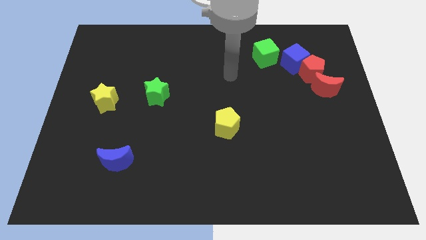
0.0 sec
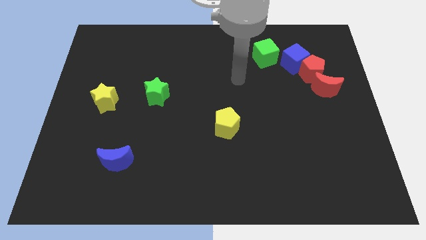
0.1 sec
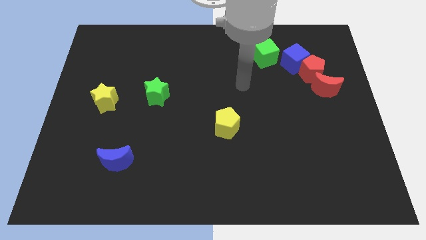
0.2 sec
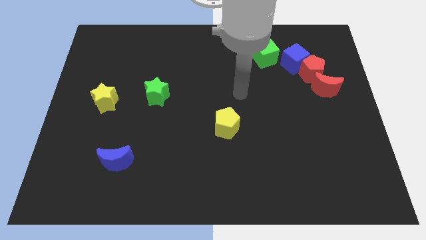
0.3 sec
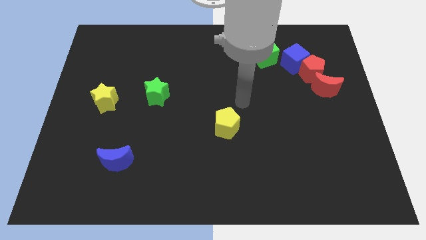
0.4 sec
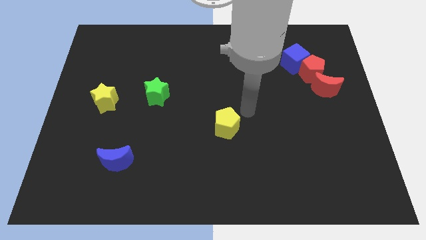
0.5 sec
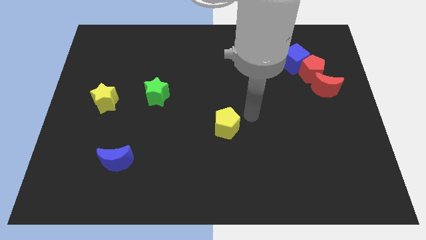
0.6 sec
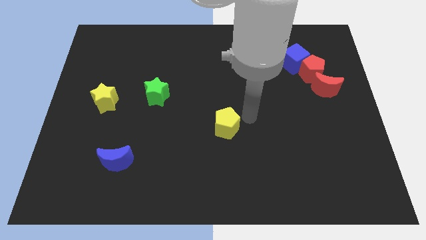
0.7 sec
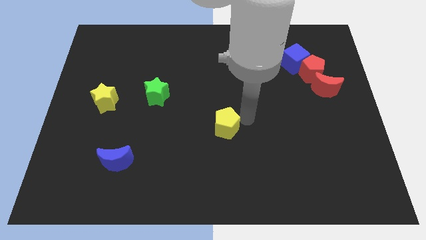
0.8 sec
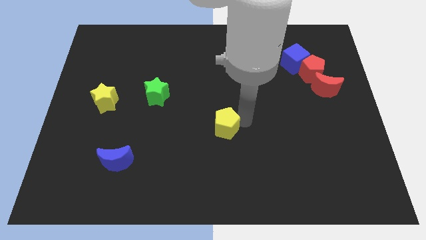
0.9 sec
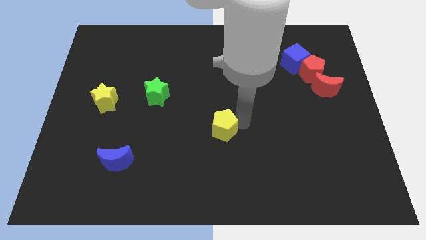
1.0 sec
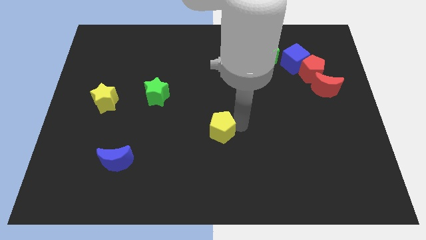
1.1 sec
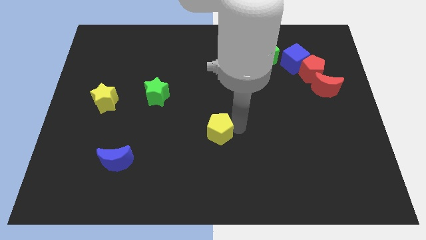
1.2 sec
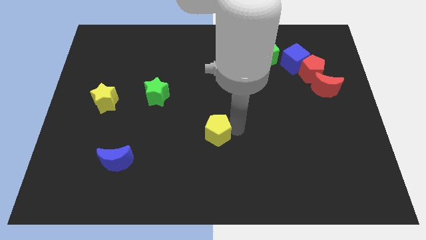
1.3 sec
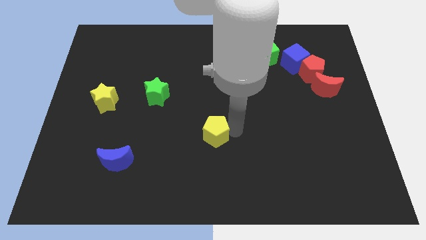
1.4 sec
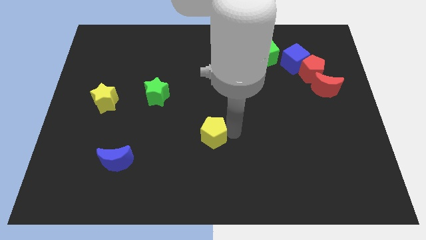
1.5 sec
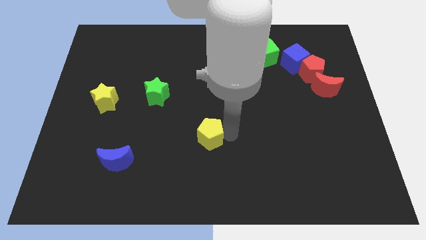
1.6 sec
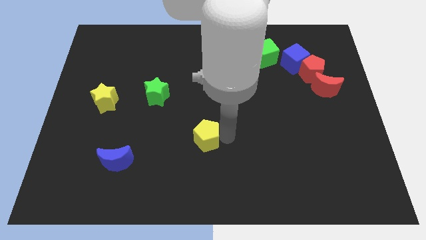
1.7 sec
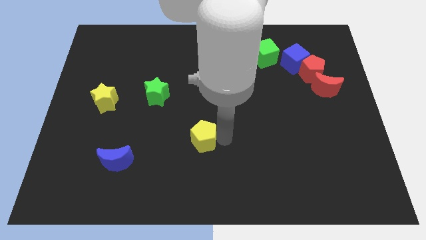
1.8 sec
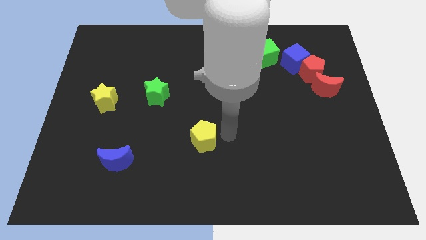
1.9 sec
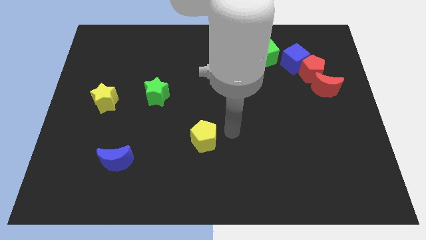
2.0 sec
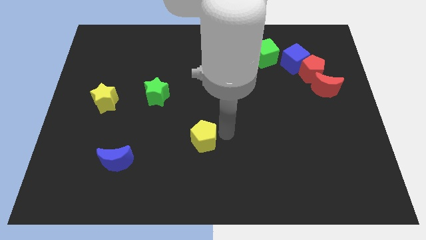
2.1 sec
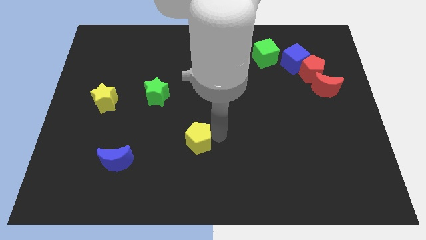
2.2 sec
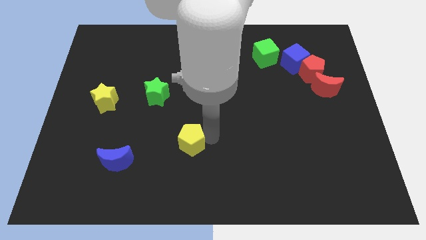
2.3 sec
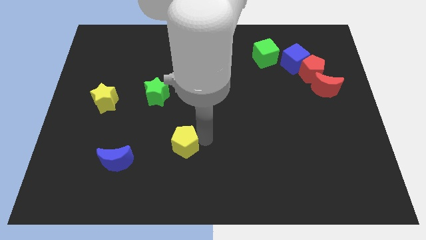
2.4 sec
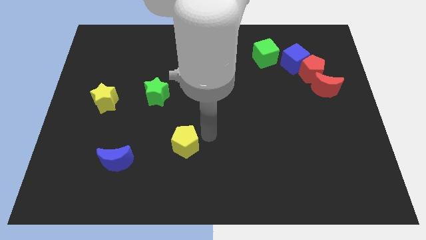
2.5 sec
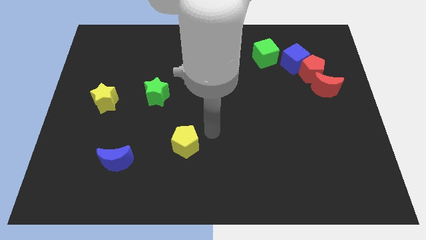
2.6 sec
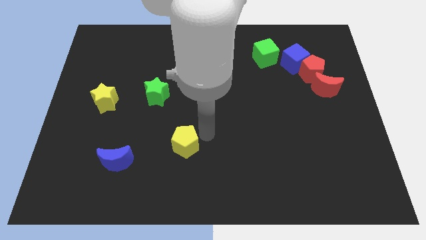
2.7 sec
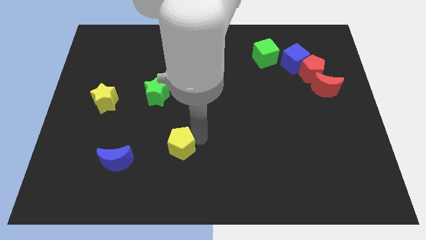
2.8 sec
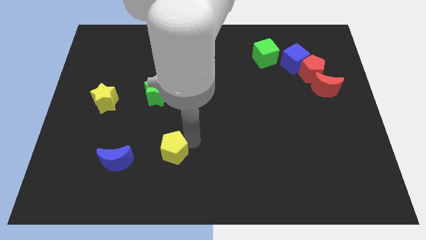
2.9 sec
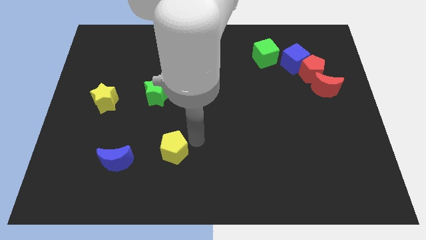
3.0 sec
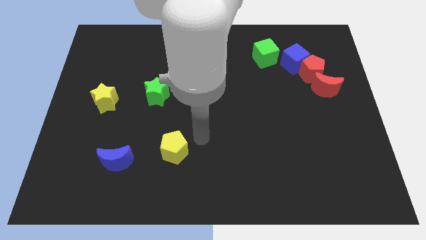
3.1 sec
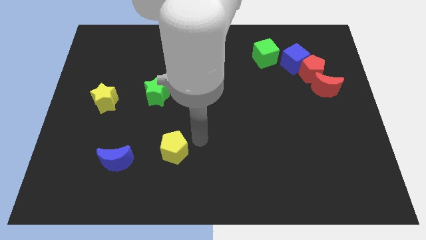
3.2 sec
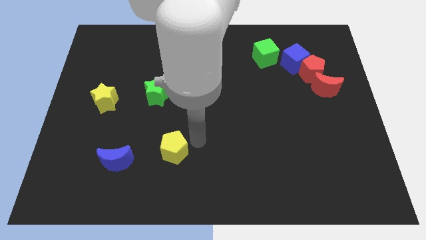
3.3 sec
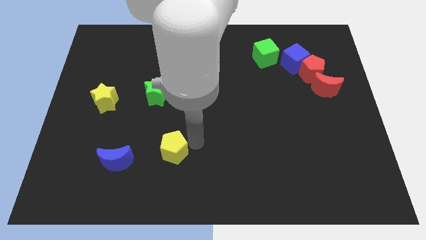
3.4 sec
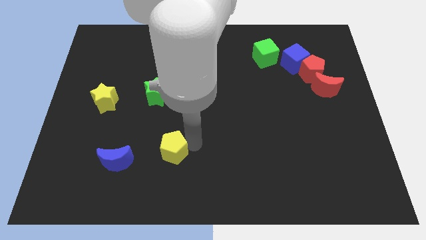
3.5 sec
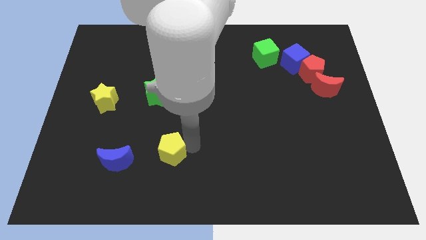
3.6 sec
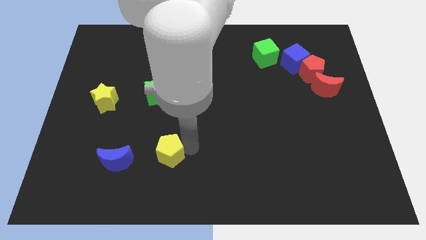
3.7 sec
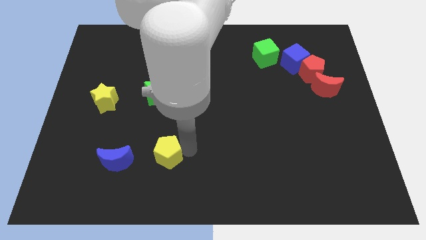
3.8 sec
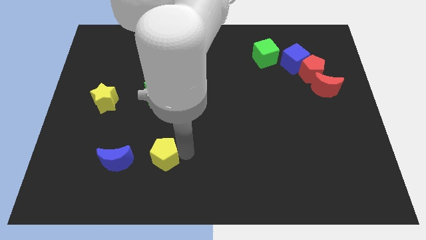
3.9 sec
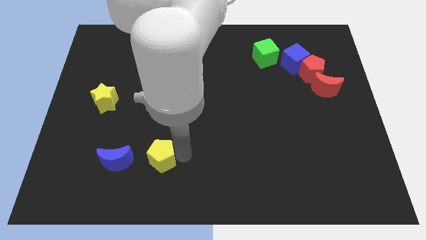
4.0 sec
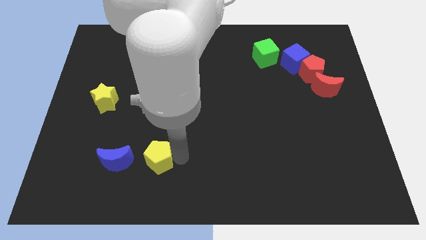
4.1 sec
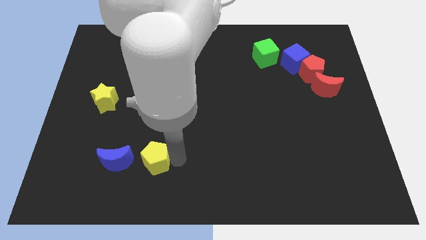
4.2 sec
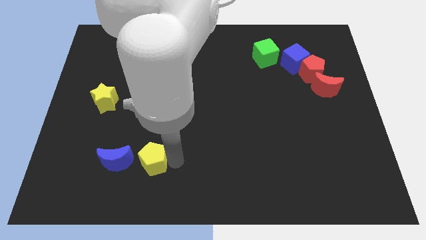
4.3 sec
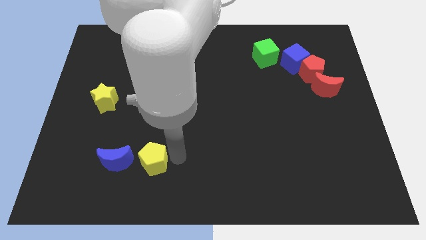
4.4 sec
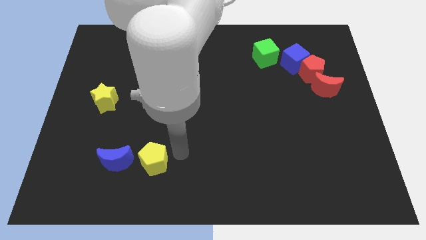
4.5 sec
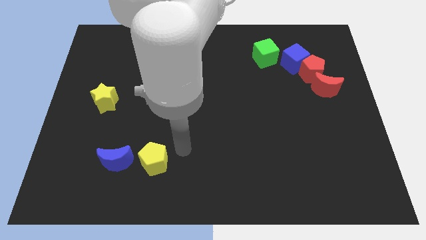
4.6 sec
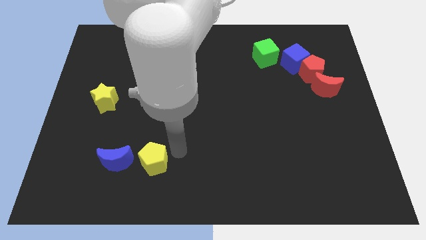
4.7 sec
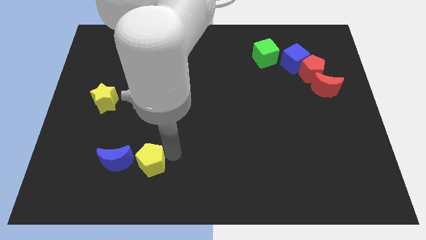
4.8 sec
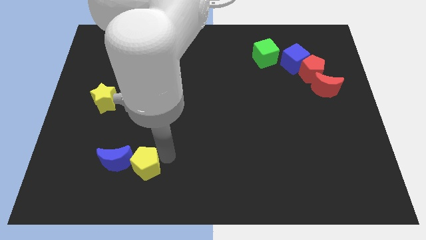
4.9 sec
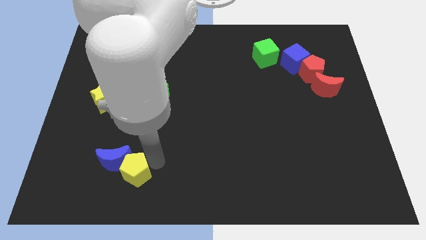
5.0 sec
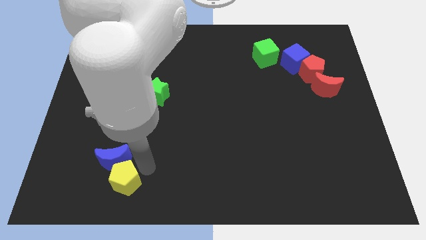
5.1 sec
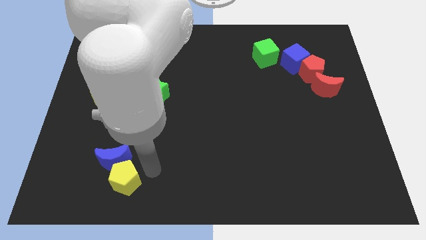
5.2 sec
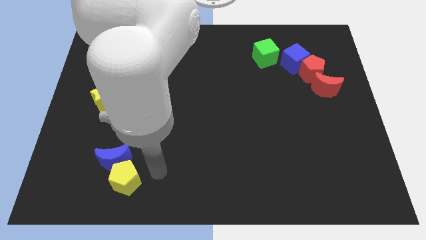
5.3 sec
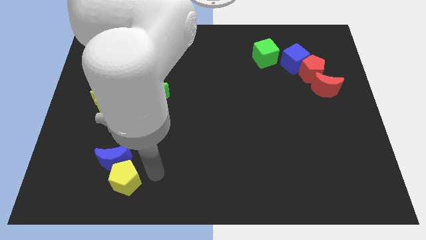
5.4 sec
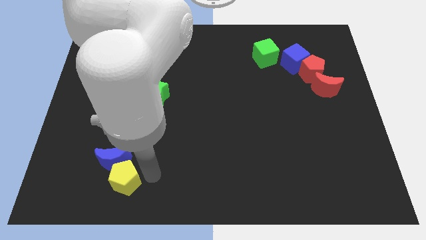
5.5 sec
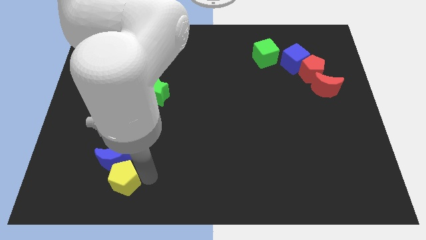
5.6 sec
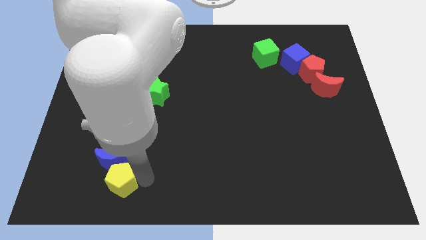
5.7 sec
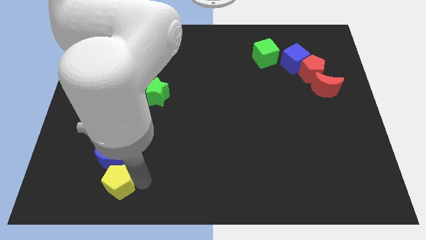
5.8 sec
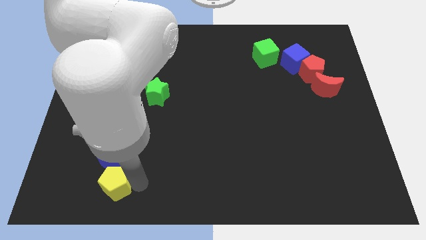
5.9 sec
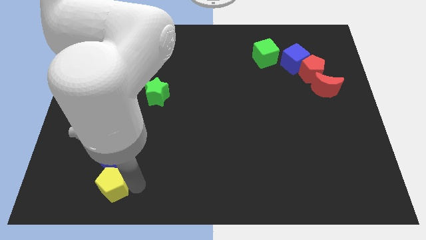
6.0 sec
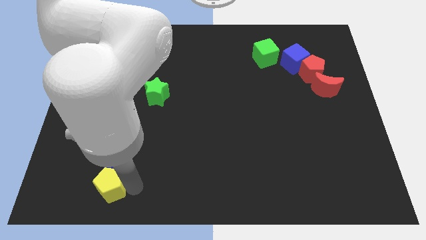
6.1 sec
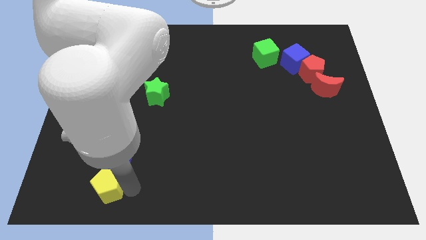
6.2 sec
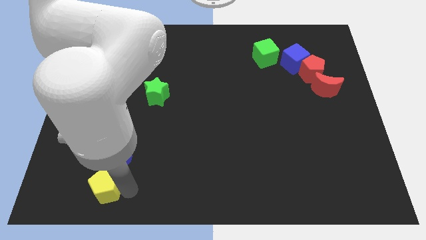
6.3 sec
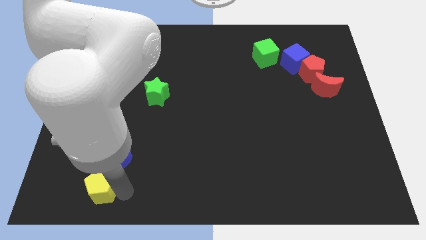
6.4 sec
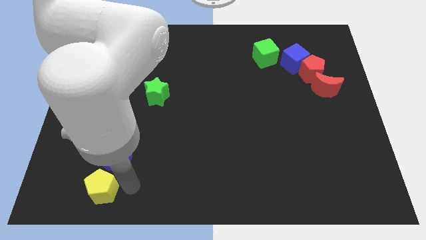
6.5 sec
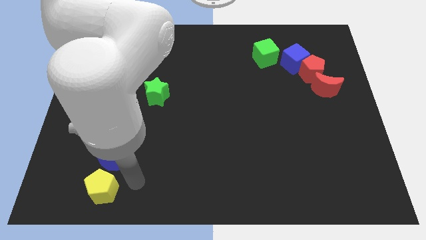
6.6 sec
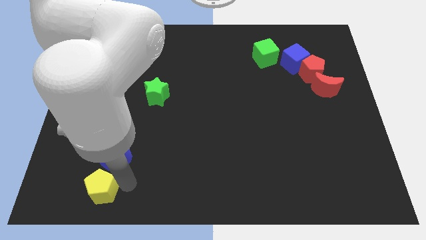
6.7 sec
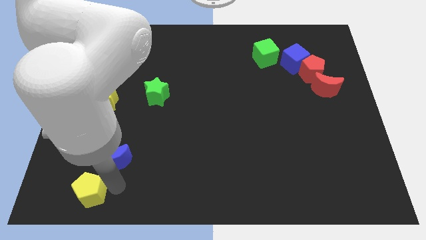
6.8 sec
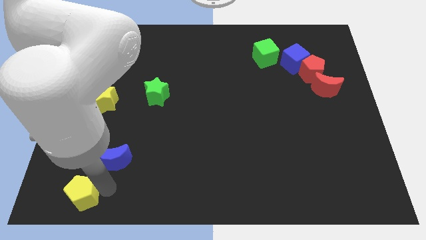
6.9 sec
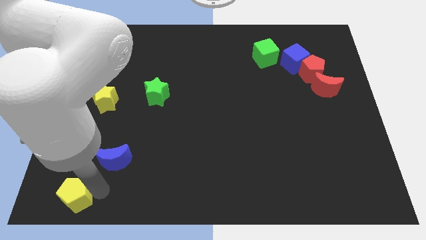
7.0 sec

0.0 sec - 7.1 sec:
push the yellow pentagon to the lower left corner
